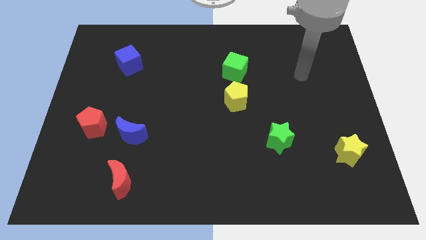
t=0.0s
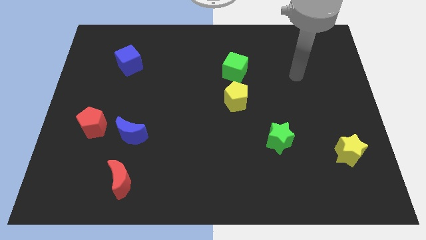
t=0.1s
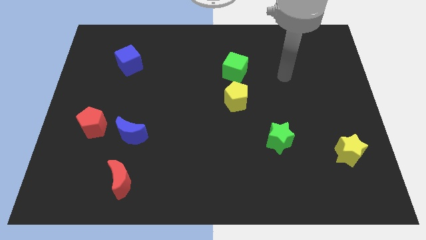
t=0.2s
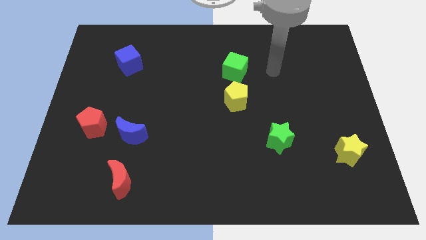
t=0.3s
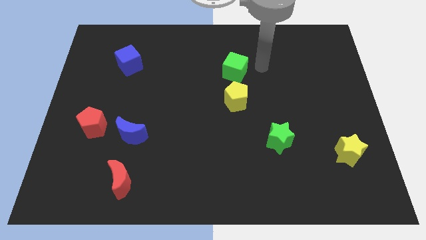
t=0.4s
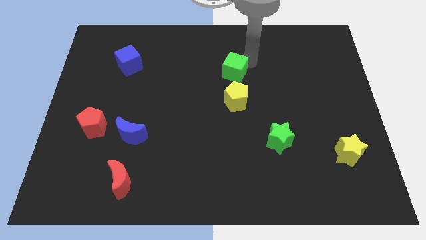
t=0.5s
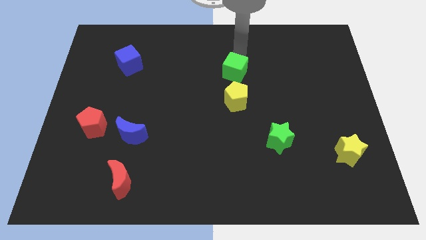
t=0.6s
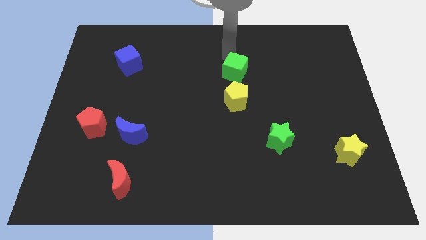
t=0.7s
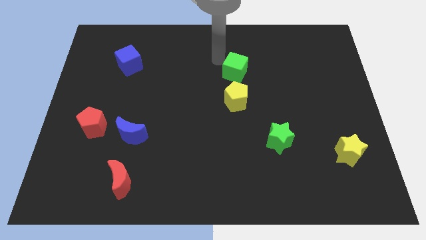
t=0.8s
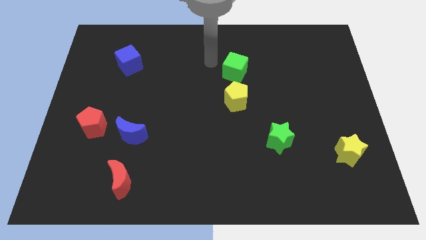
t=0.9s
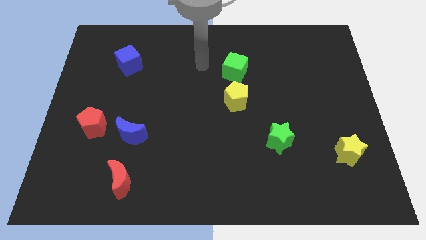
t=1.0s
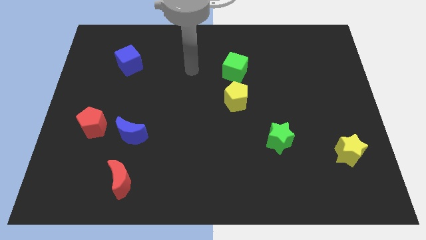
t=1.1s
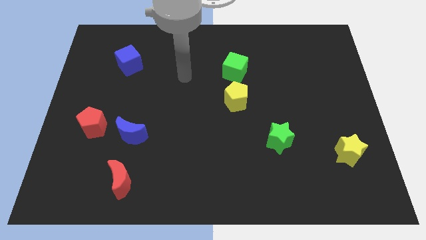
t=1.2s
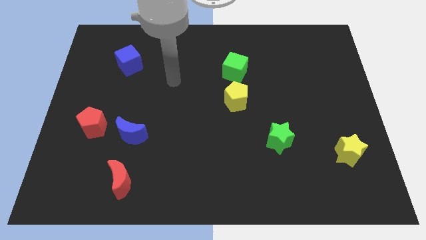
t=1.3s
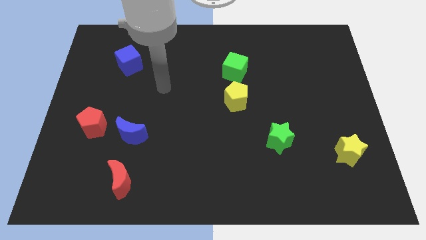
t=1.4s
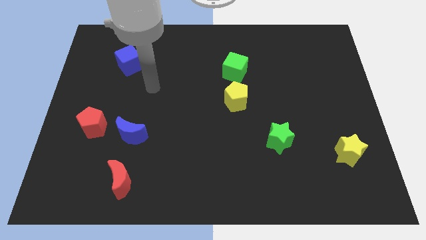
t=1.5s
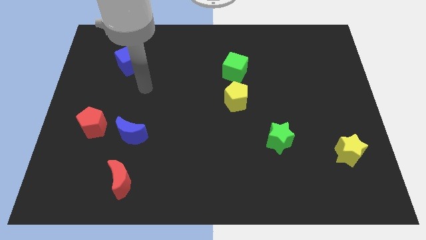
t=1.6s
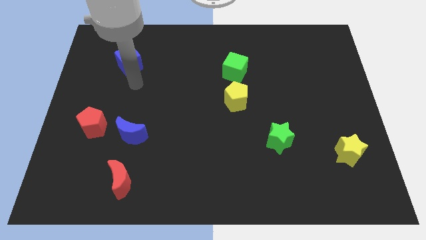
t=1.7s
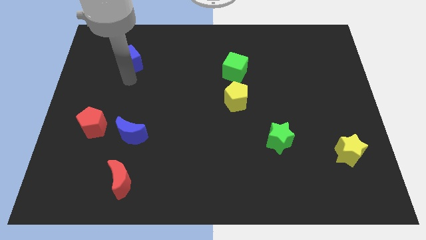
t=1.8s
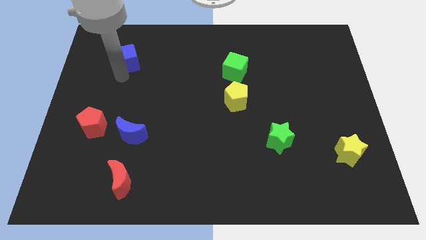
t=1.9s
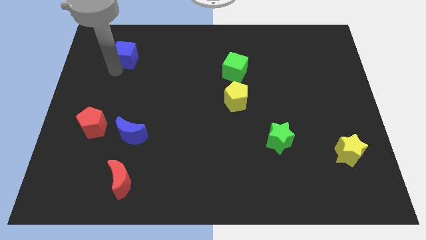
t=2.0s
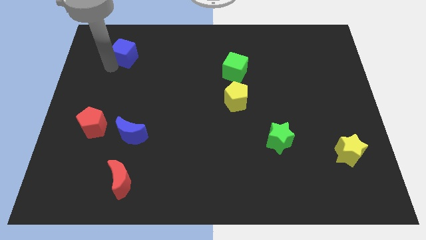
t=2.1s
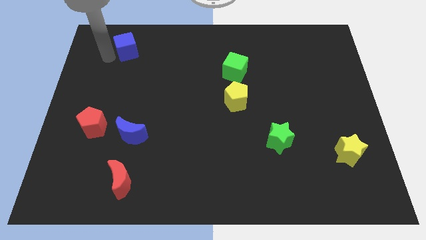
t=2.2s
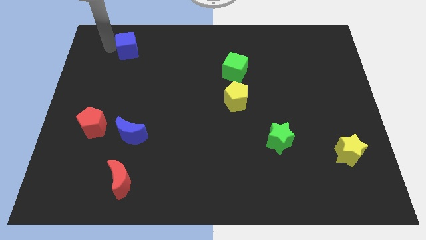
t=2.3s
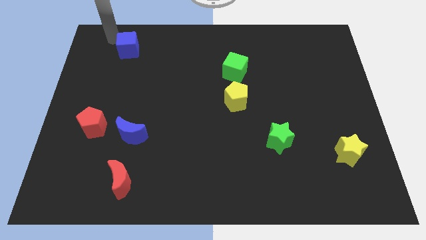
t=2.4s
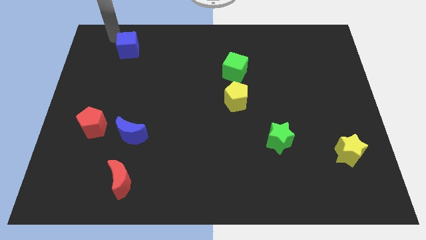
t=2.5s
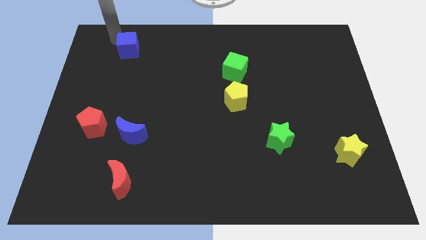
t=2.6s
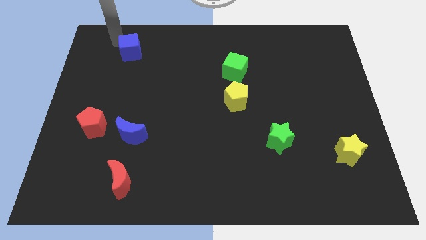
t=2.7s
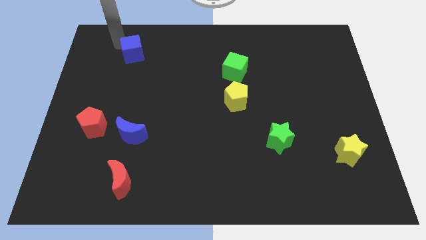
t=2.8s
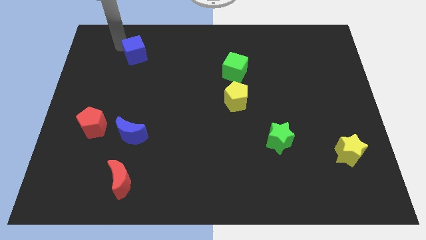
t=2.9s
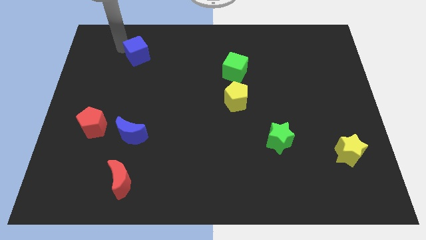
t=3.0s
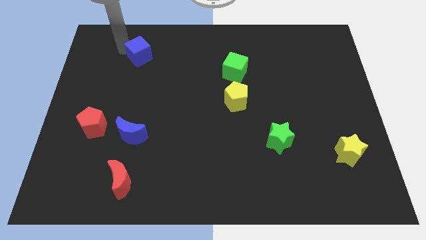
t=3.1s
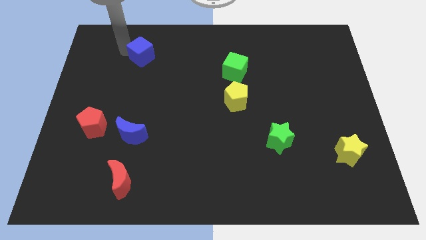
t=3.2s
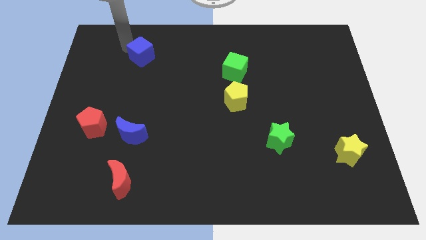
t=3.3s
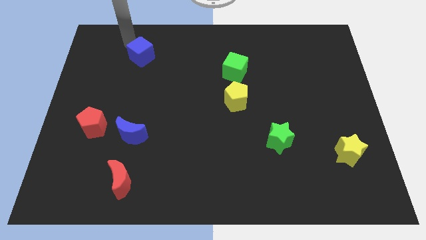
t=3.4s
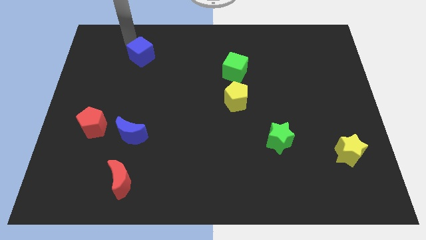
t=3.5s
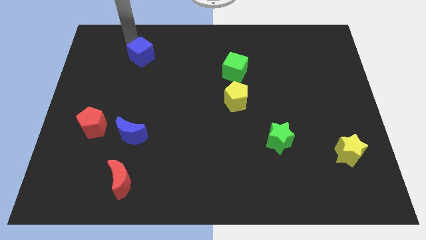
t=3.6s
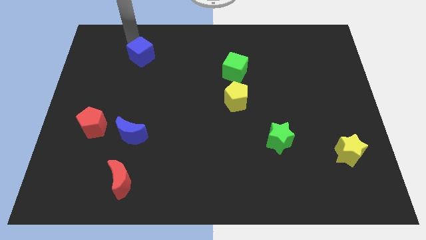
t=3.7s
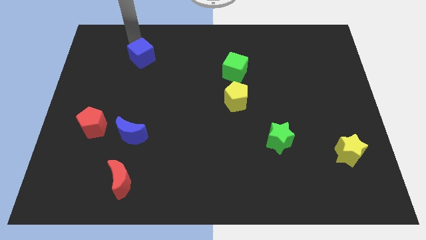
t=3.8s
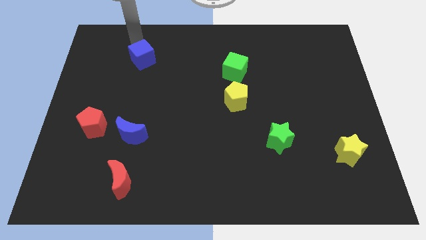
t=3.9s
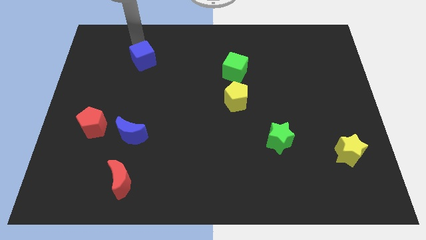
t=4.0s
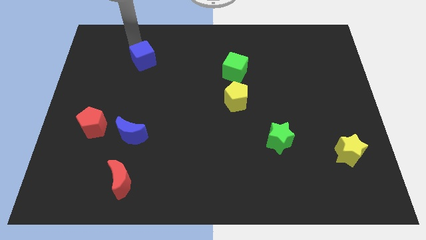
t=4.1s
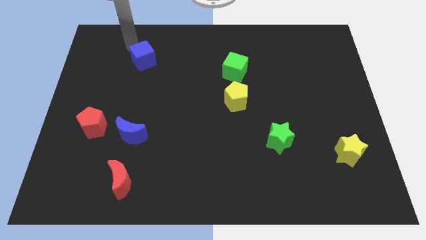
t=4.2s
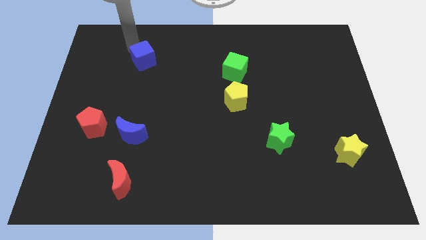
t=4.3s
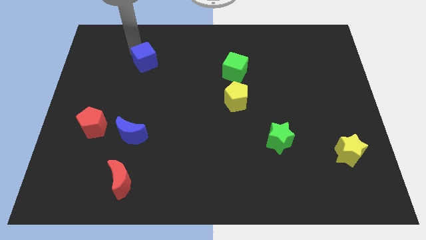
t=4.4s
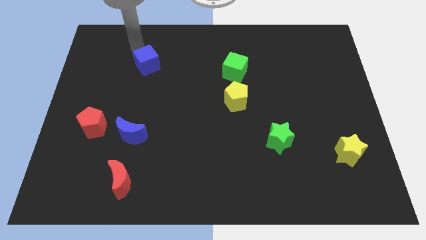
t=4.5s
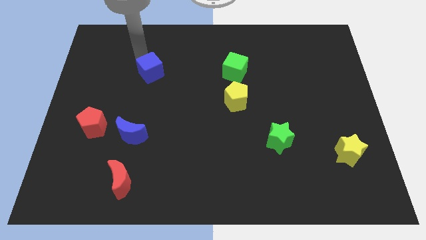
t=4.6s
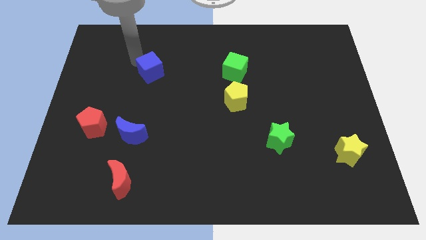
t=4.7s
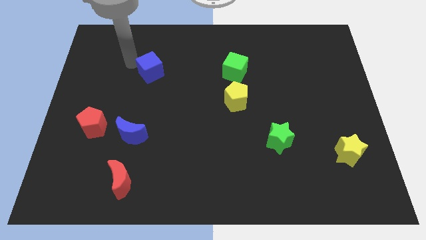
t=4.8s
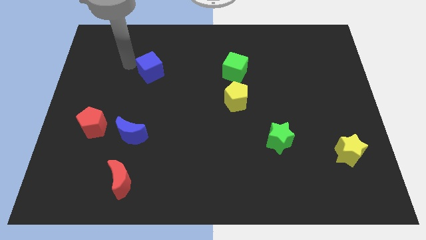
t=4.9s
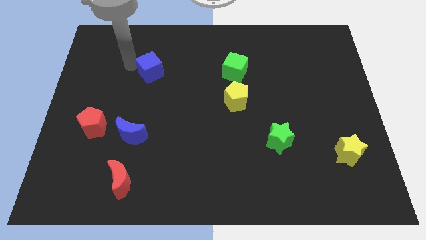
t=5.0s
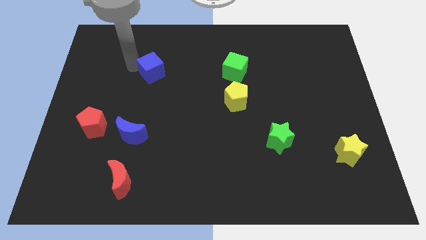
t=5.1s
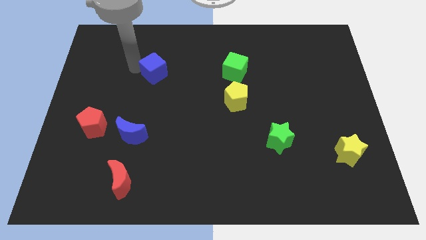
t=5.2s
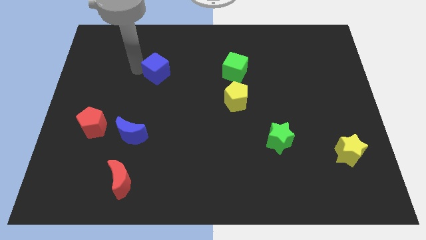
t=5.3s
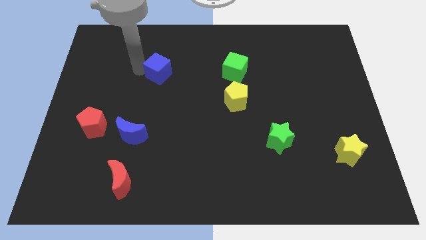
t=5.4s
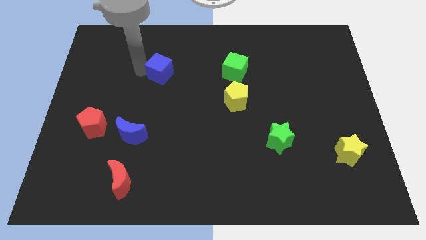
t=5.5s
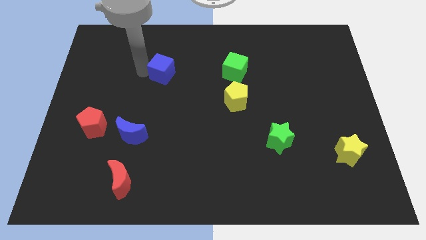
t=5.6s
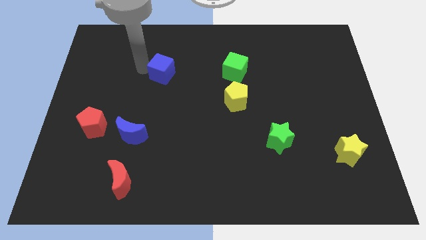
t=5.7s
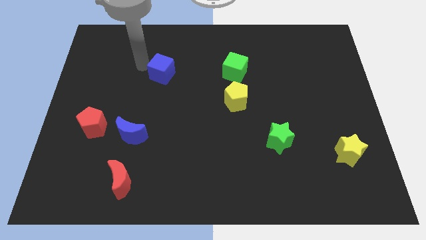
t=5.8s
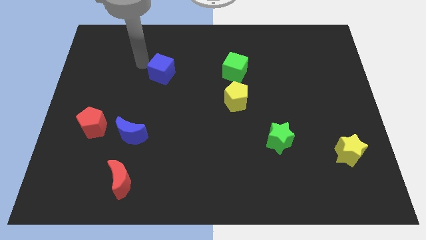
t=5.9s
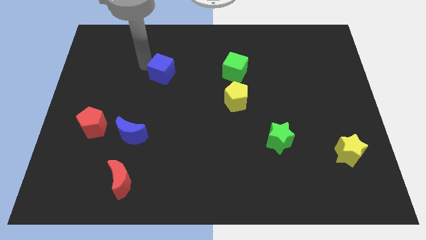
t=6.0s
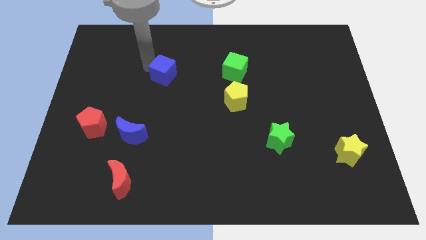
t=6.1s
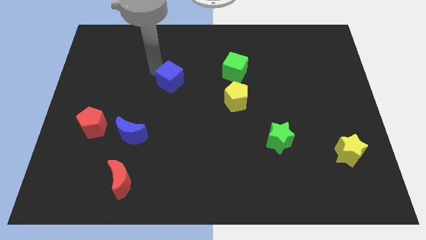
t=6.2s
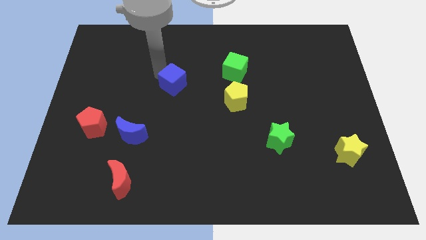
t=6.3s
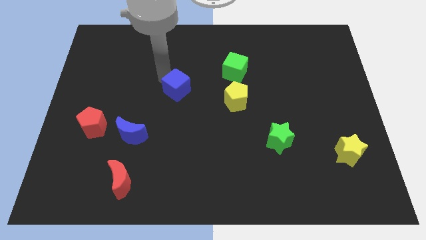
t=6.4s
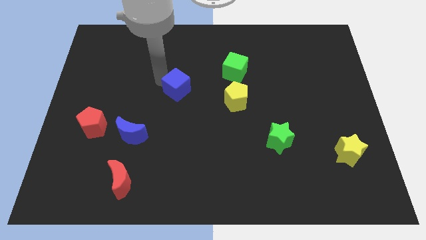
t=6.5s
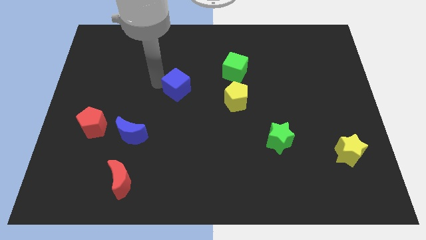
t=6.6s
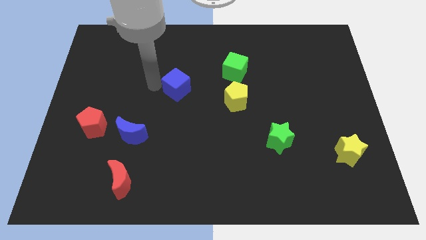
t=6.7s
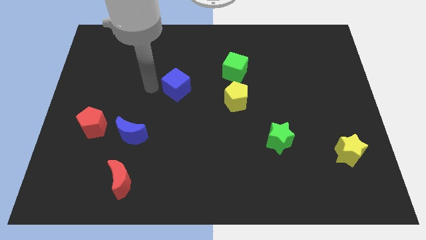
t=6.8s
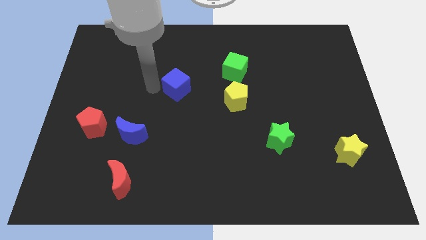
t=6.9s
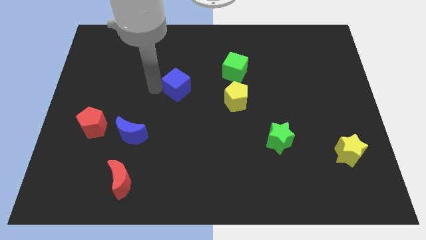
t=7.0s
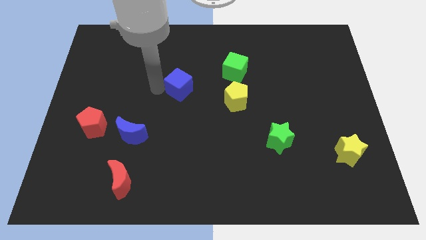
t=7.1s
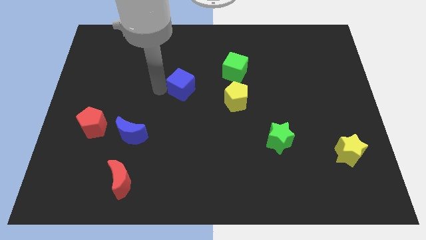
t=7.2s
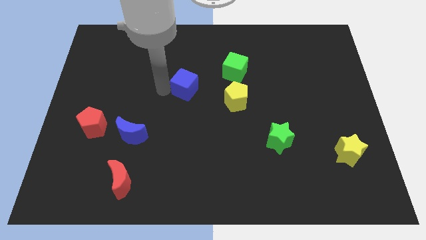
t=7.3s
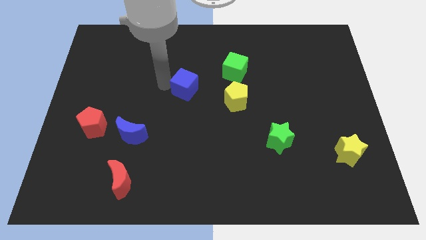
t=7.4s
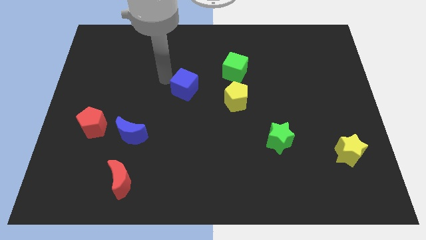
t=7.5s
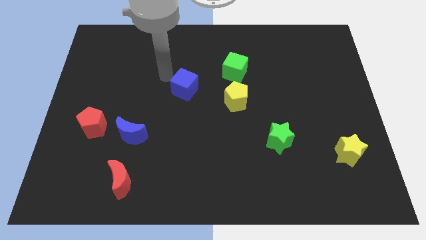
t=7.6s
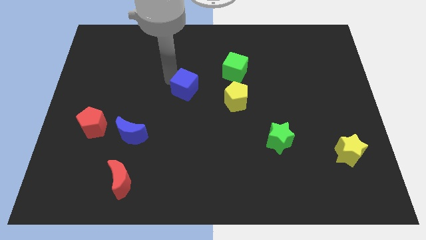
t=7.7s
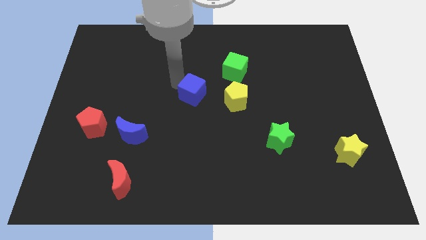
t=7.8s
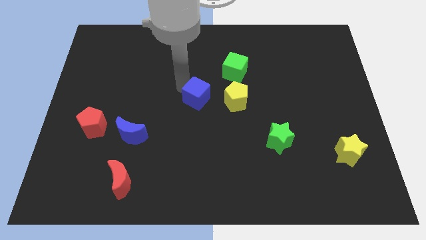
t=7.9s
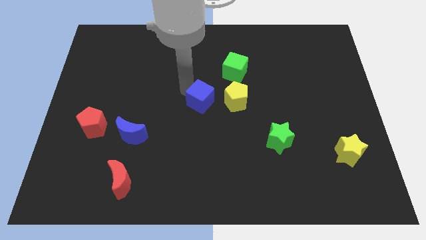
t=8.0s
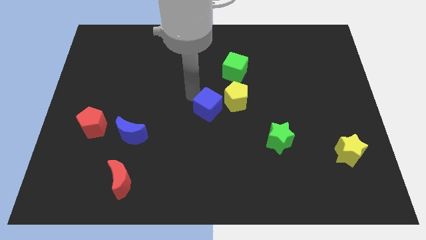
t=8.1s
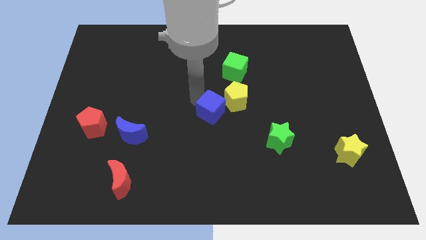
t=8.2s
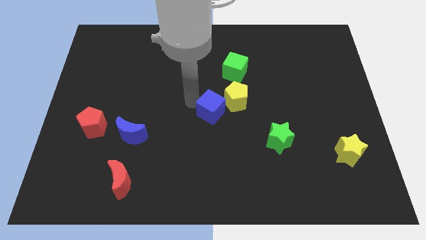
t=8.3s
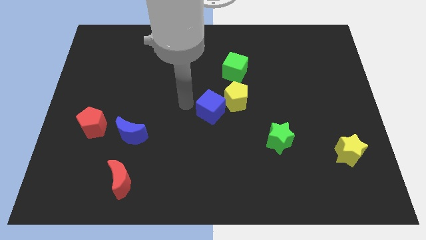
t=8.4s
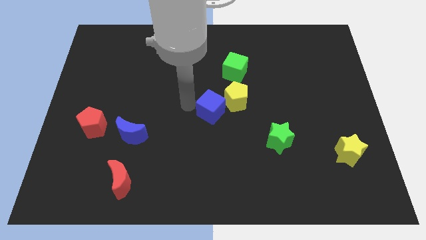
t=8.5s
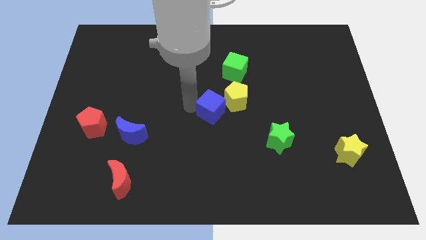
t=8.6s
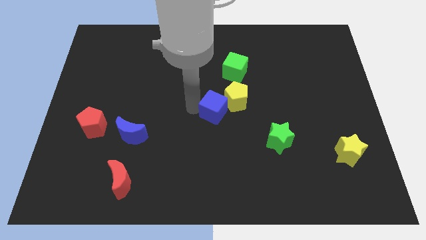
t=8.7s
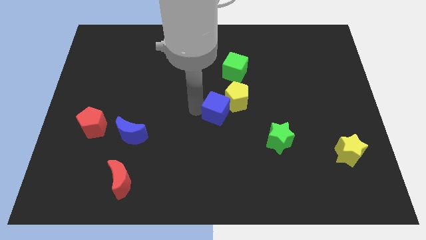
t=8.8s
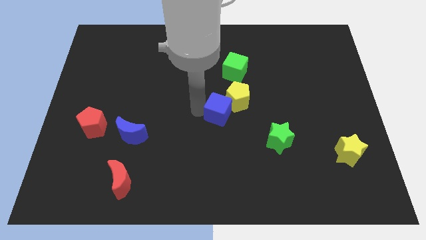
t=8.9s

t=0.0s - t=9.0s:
slide the blue cube to the bottom side of the green cube
